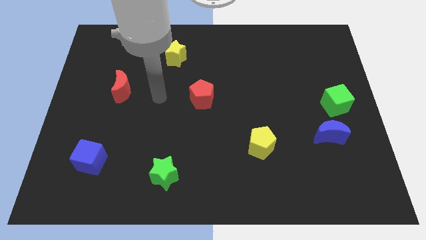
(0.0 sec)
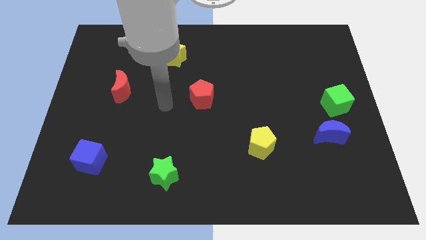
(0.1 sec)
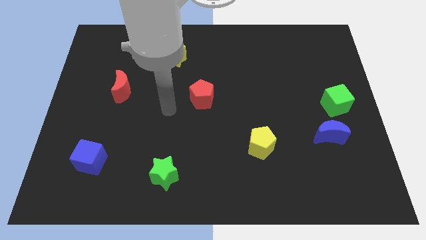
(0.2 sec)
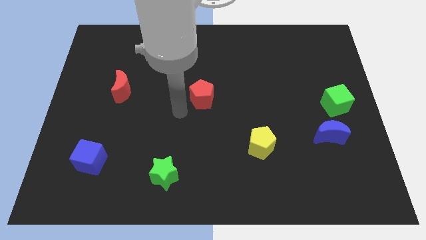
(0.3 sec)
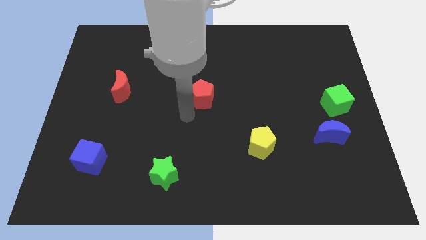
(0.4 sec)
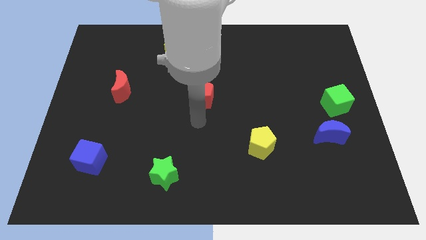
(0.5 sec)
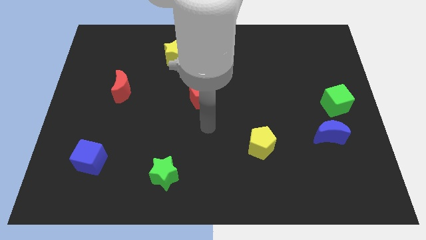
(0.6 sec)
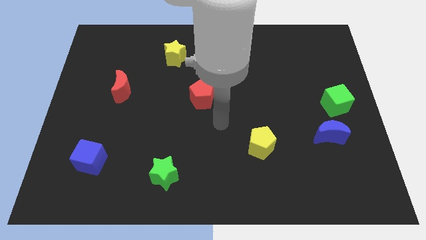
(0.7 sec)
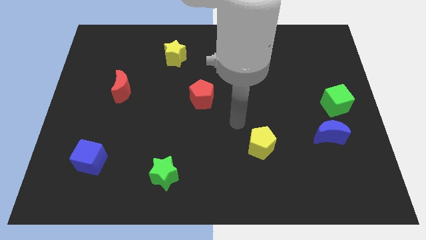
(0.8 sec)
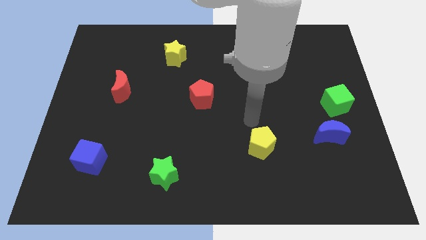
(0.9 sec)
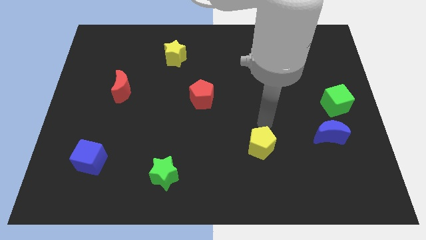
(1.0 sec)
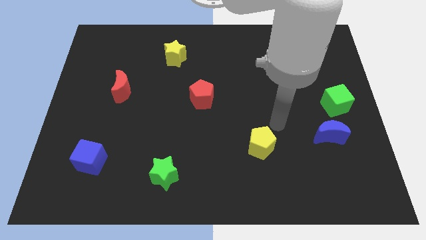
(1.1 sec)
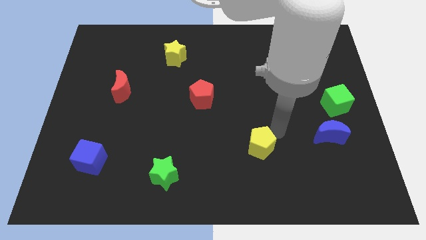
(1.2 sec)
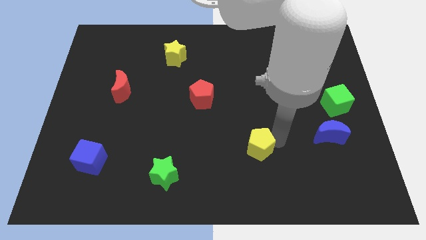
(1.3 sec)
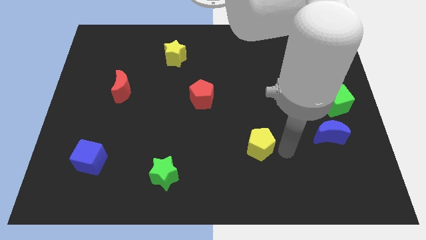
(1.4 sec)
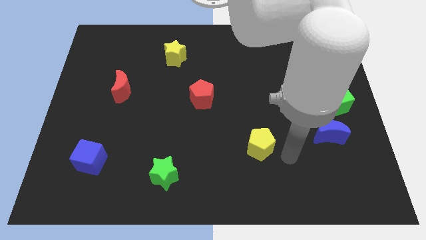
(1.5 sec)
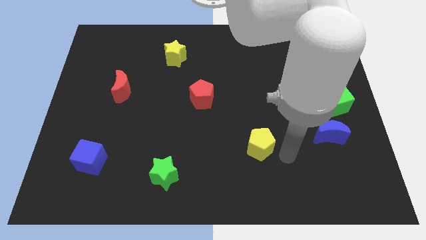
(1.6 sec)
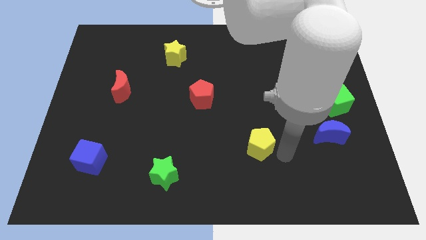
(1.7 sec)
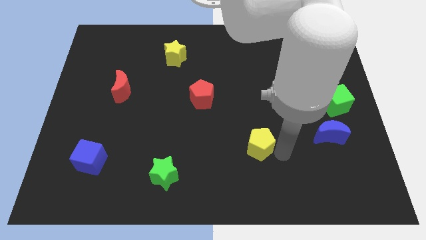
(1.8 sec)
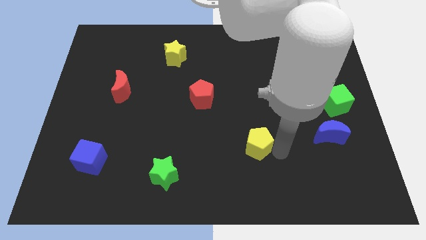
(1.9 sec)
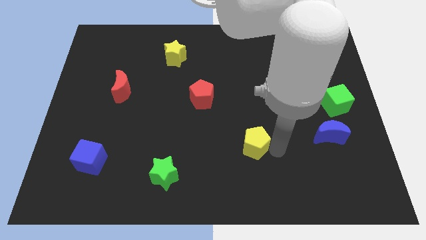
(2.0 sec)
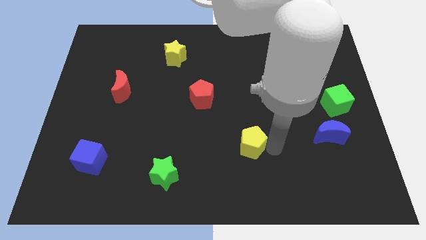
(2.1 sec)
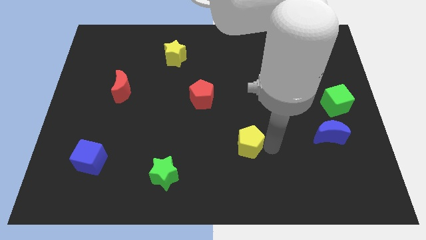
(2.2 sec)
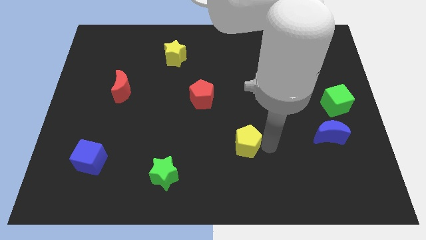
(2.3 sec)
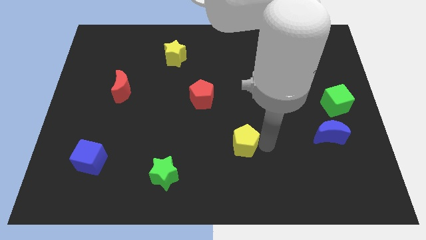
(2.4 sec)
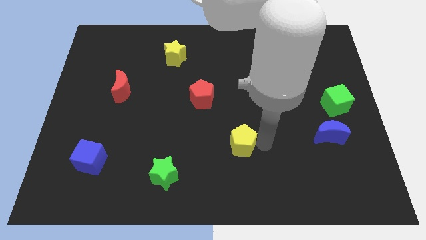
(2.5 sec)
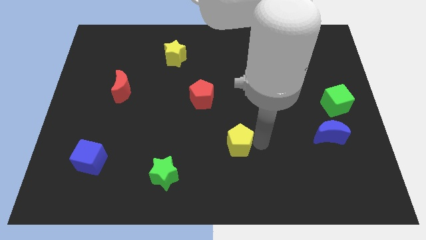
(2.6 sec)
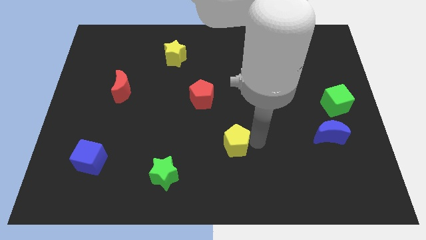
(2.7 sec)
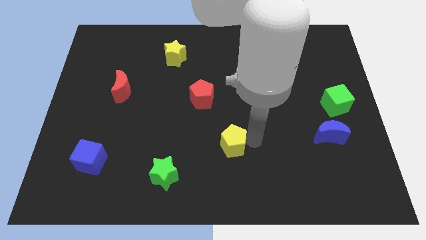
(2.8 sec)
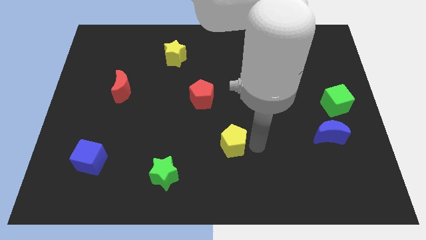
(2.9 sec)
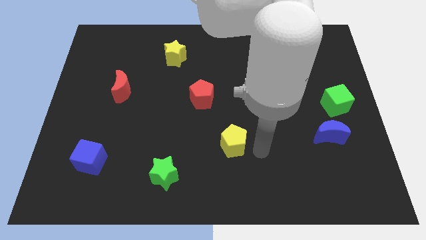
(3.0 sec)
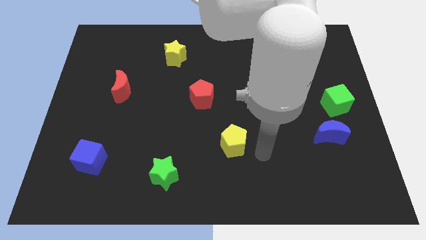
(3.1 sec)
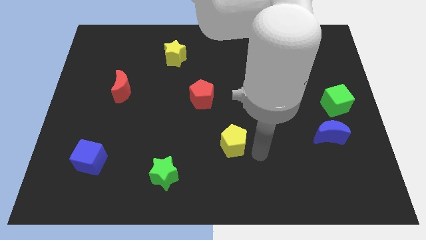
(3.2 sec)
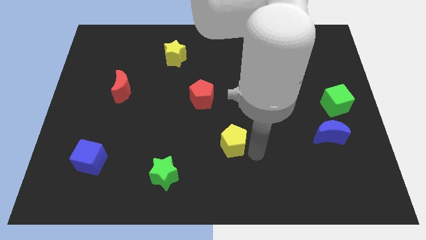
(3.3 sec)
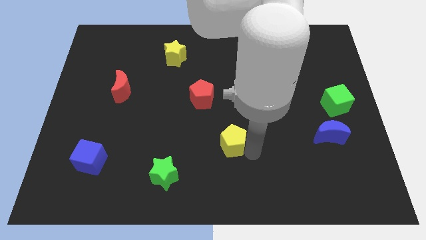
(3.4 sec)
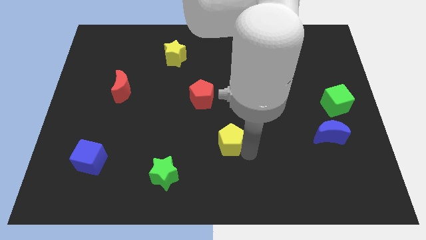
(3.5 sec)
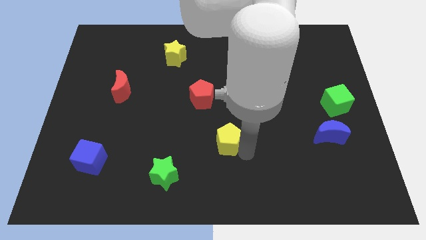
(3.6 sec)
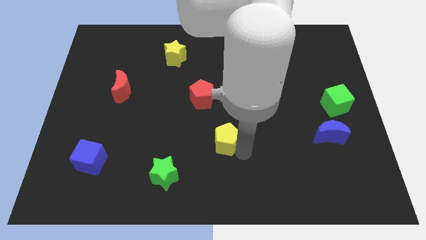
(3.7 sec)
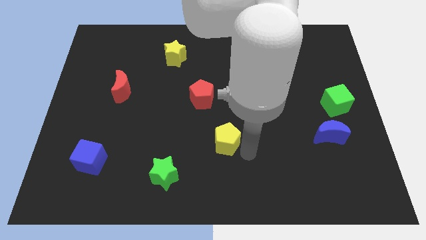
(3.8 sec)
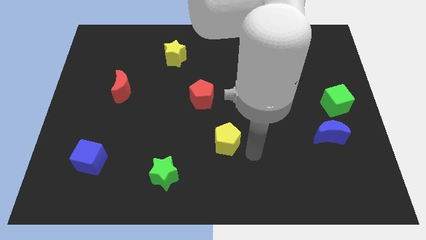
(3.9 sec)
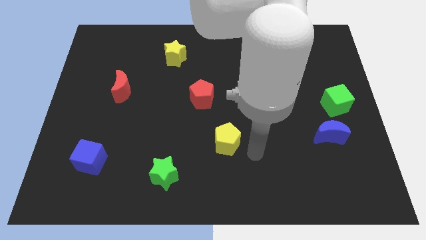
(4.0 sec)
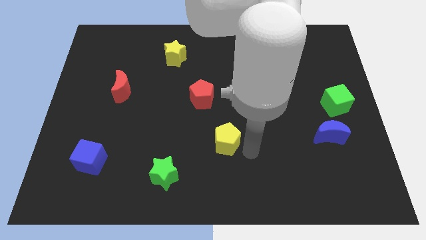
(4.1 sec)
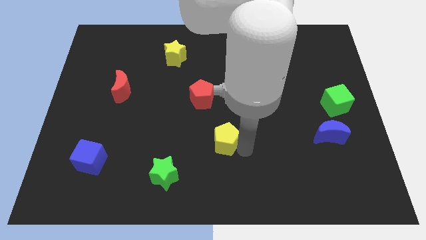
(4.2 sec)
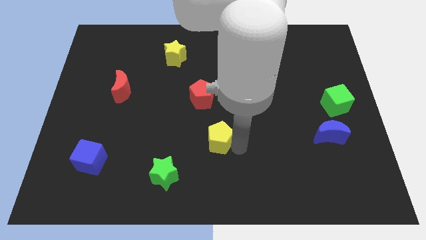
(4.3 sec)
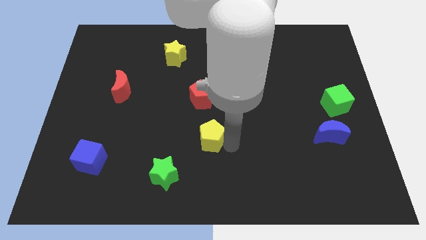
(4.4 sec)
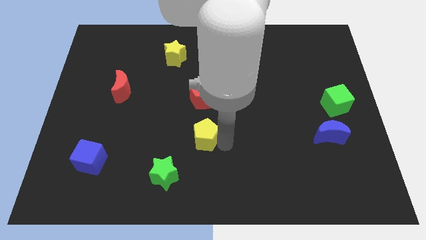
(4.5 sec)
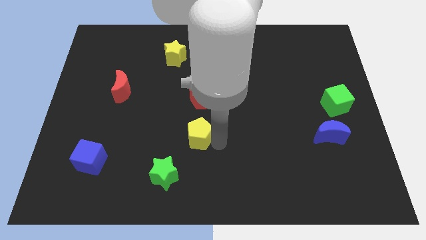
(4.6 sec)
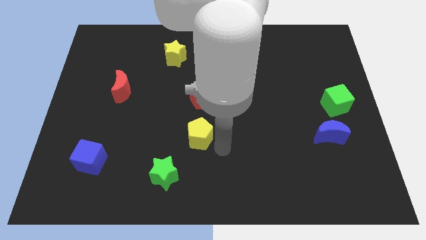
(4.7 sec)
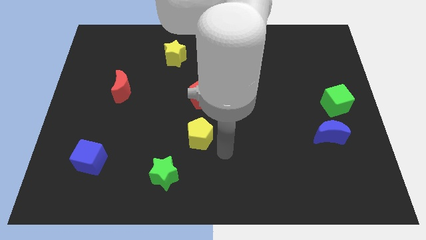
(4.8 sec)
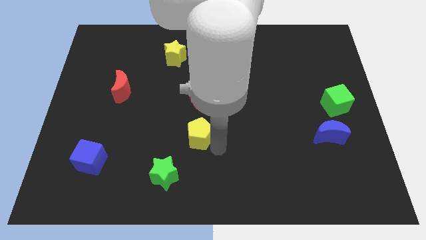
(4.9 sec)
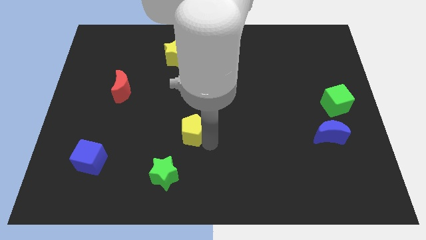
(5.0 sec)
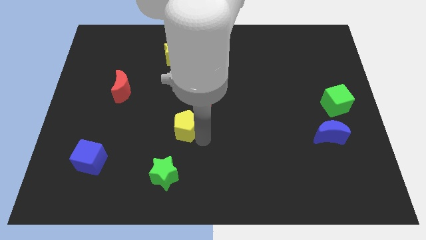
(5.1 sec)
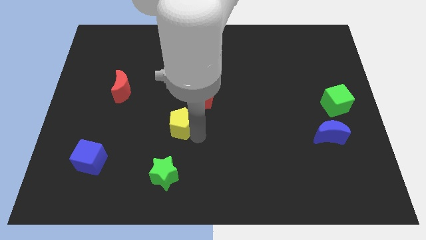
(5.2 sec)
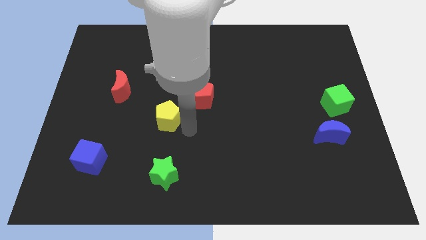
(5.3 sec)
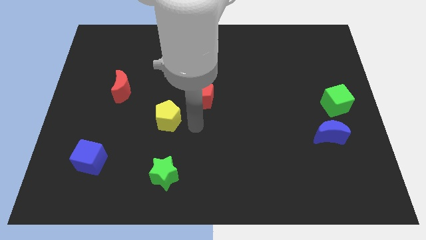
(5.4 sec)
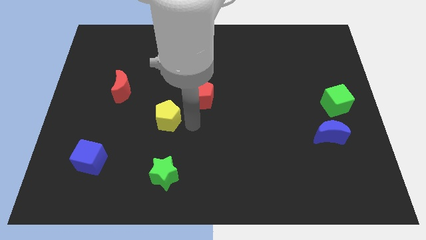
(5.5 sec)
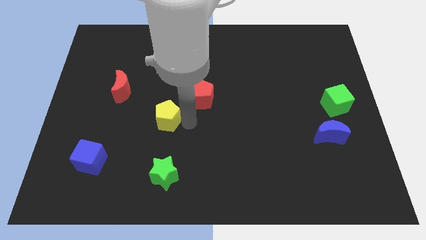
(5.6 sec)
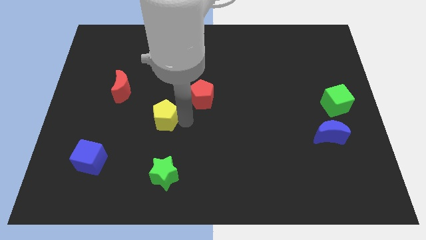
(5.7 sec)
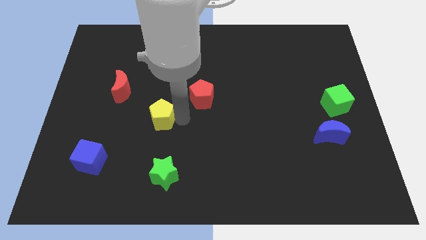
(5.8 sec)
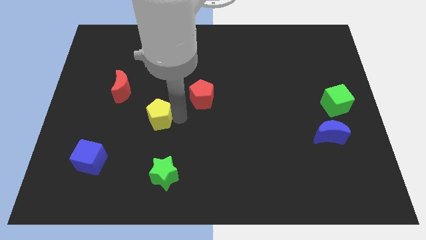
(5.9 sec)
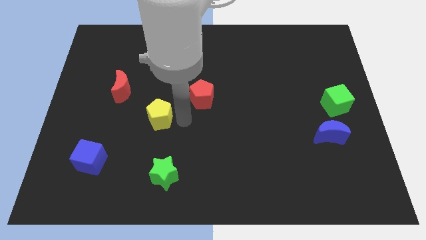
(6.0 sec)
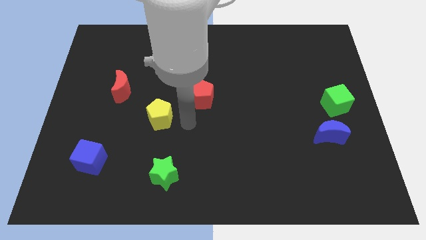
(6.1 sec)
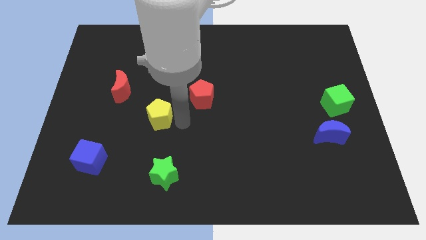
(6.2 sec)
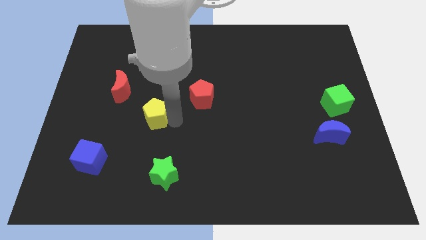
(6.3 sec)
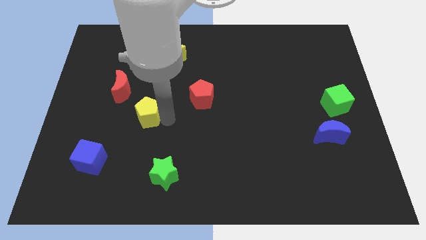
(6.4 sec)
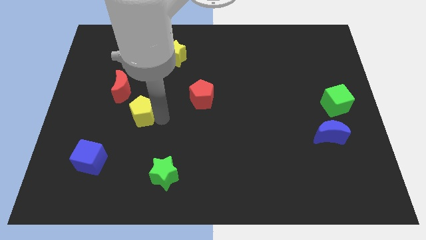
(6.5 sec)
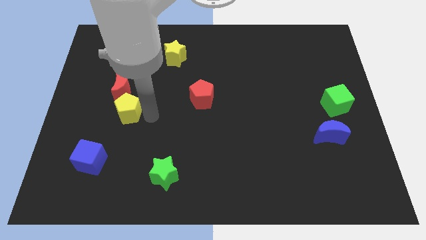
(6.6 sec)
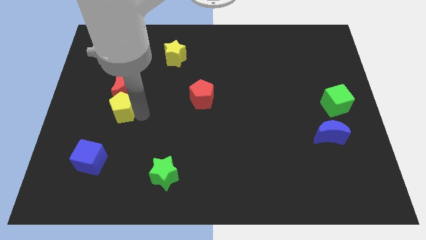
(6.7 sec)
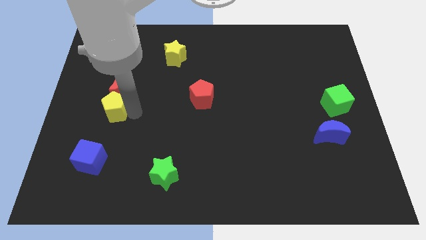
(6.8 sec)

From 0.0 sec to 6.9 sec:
move the yellow pentagon diagonally down and to the left of the red moon
